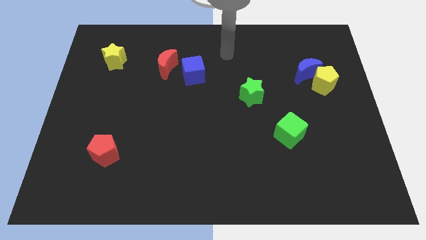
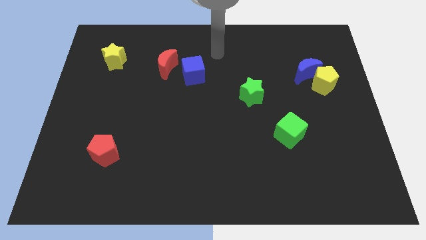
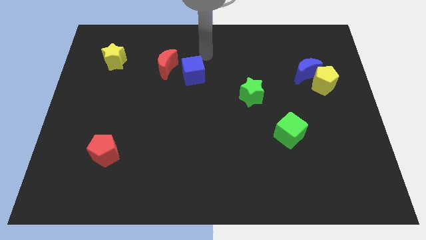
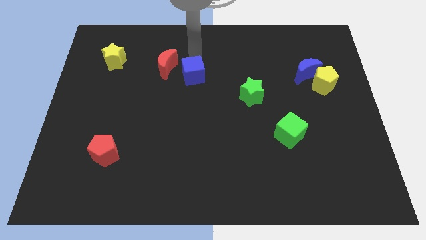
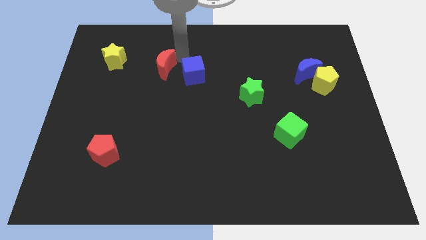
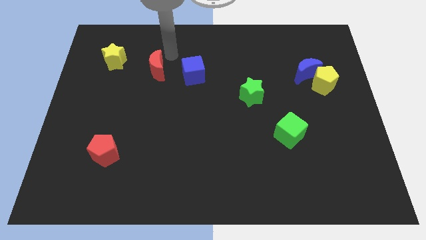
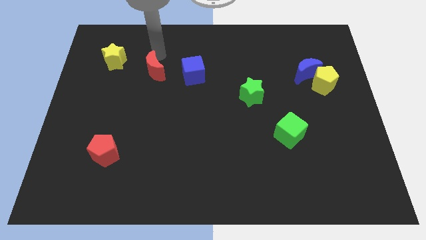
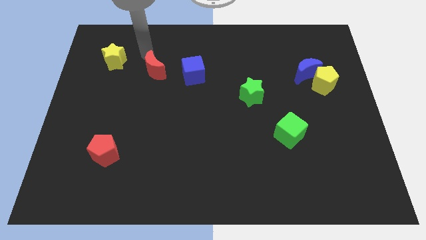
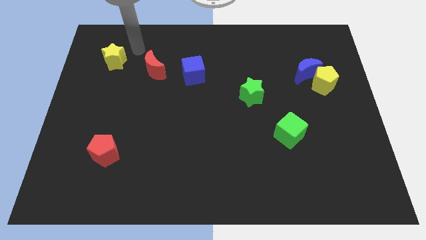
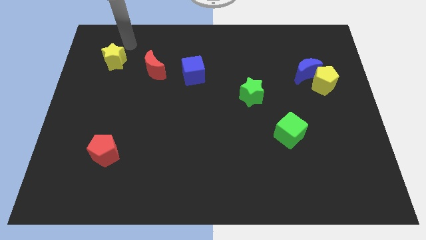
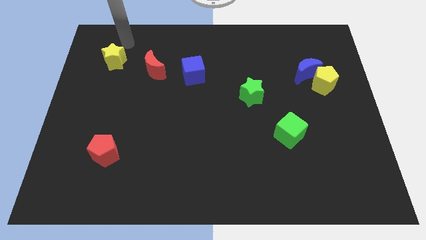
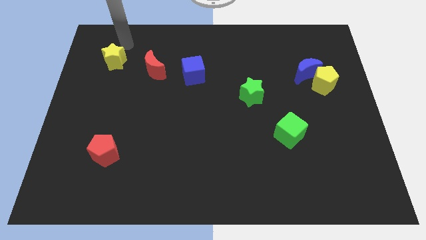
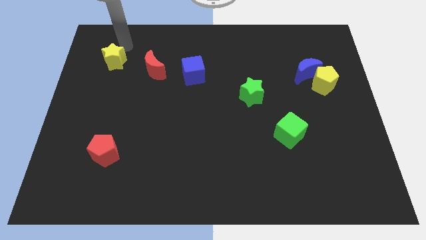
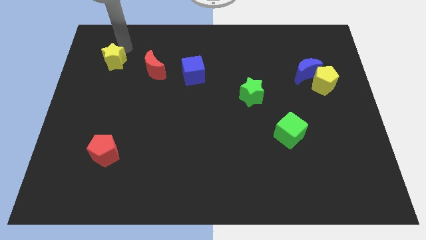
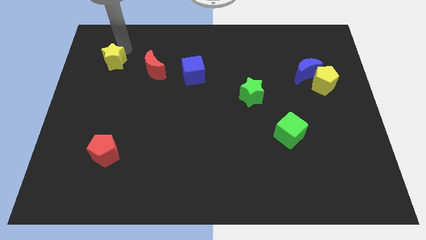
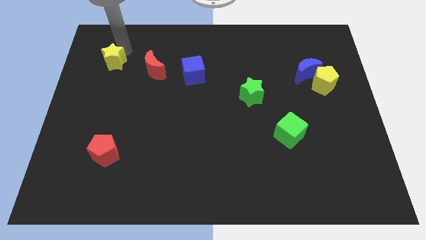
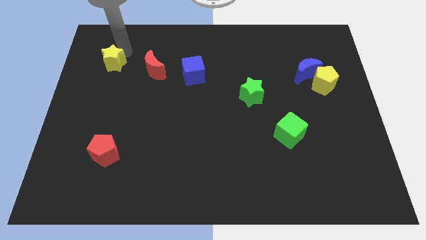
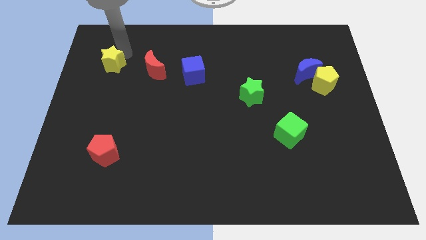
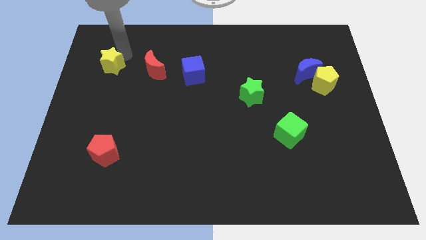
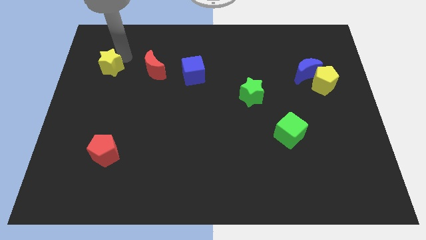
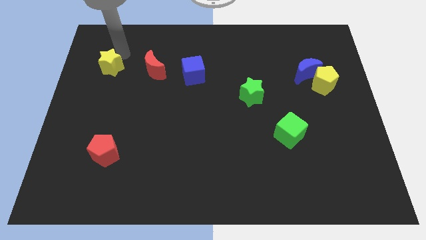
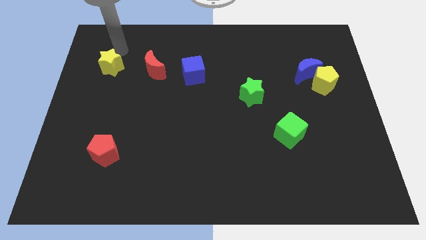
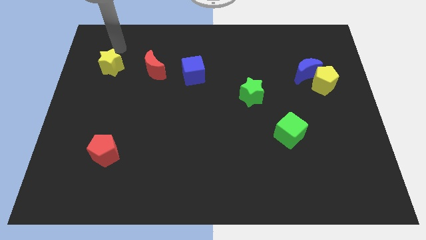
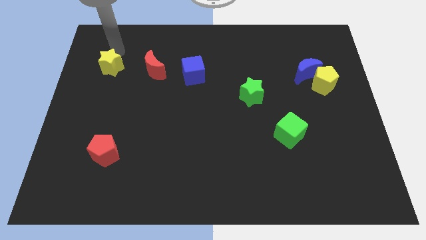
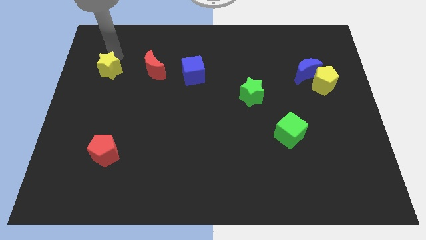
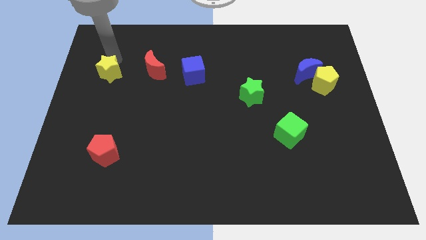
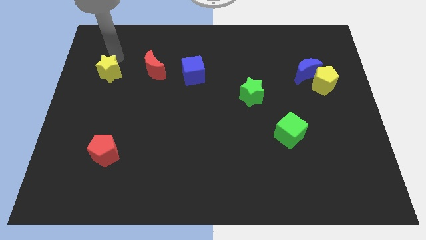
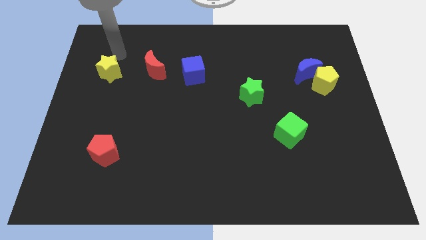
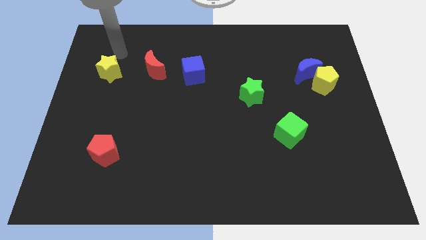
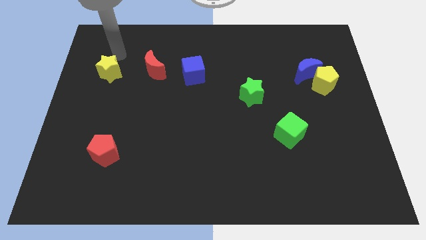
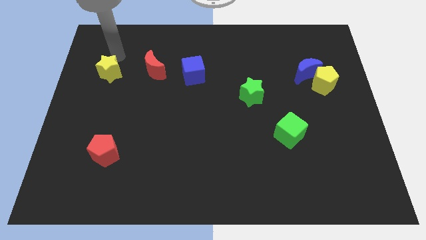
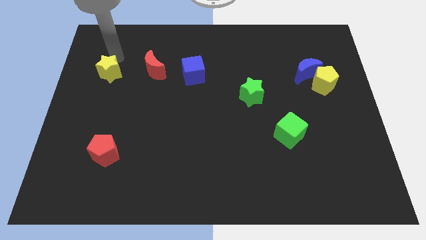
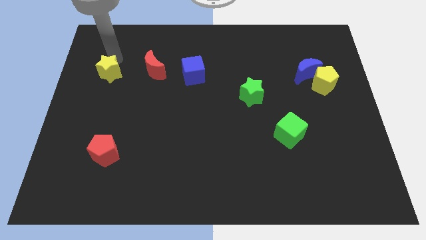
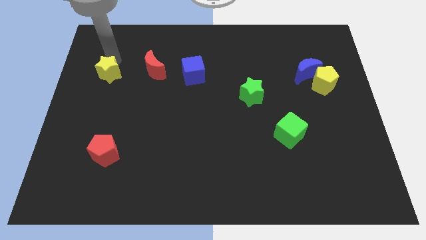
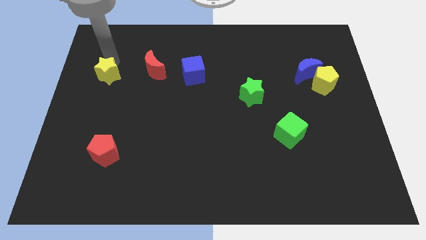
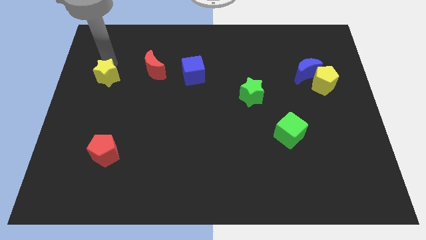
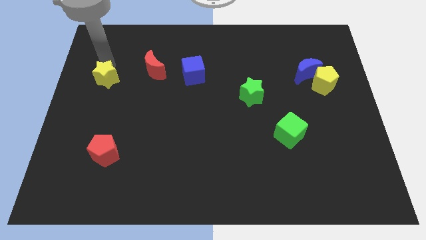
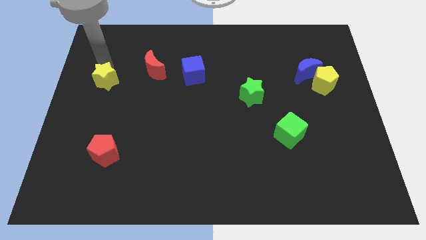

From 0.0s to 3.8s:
slightly push the yellow star down

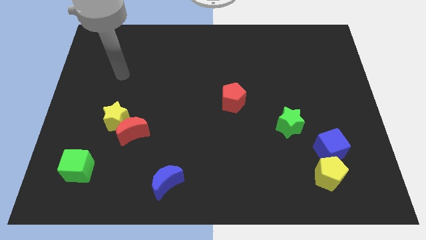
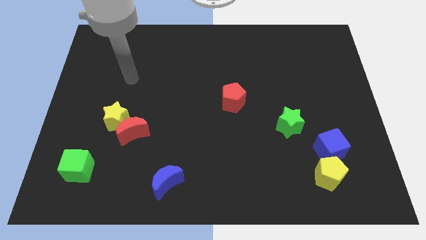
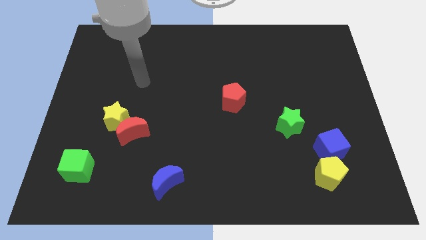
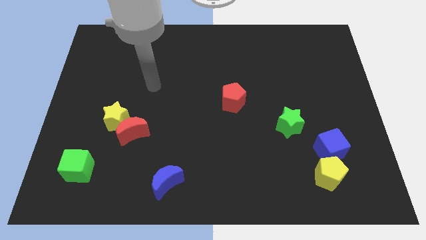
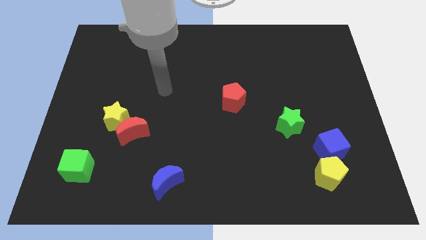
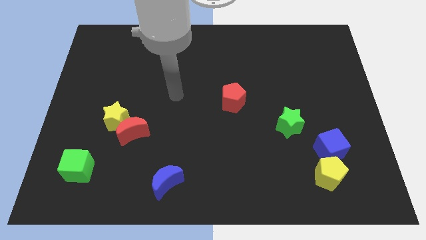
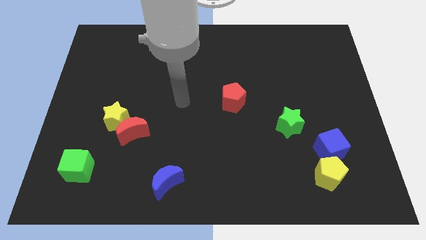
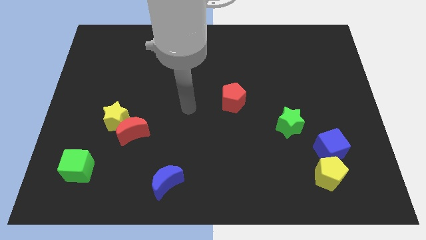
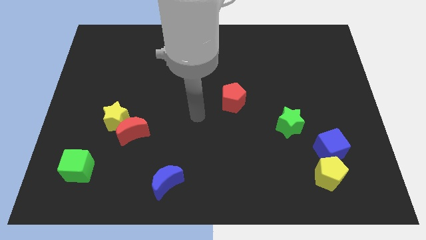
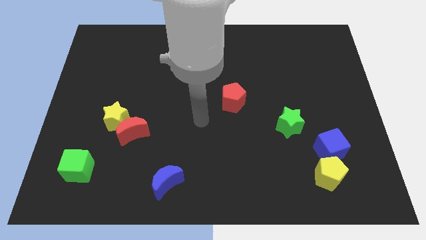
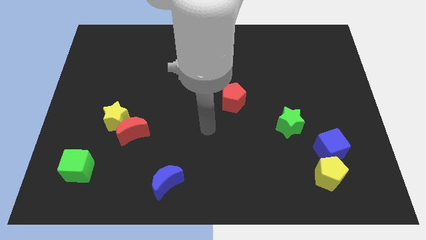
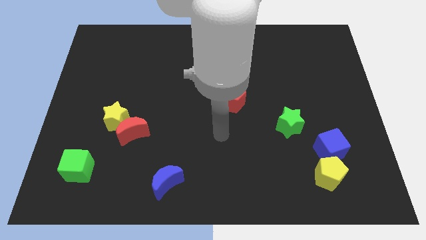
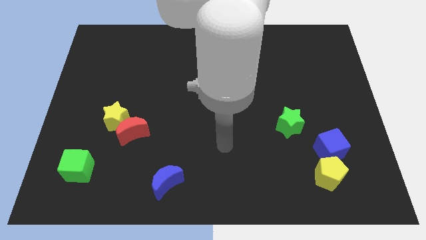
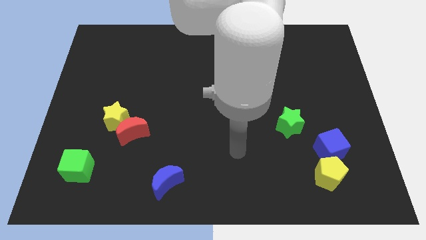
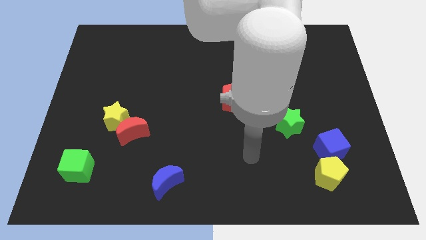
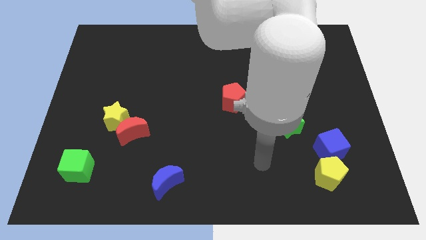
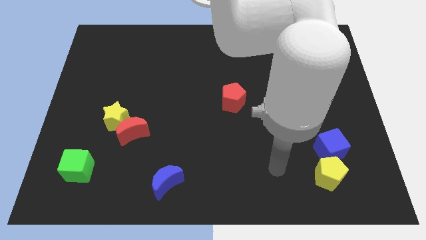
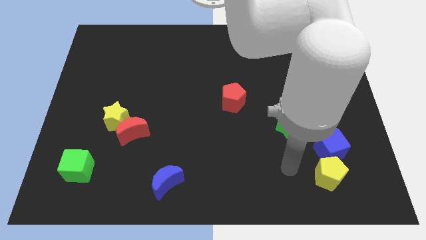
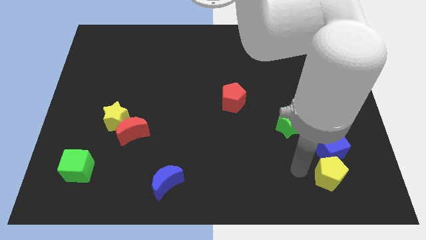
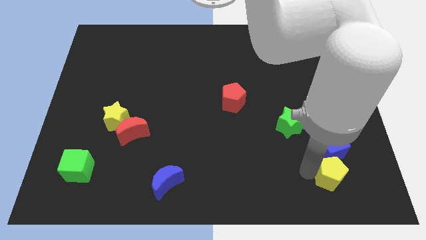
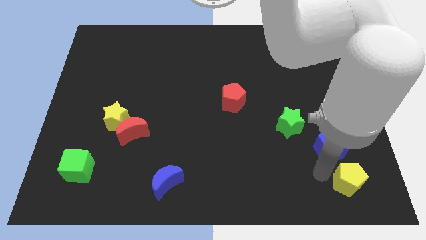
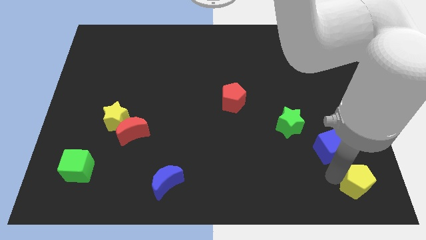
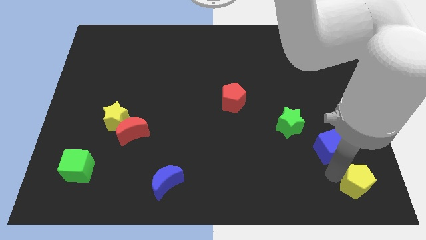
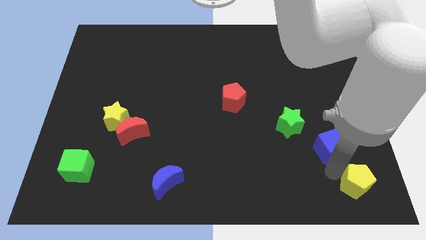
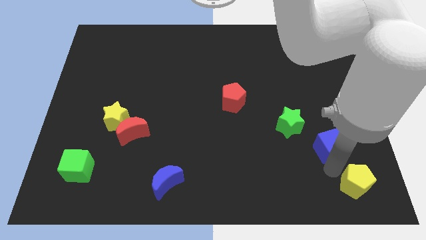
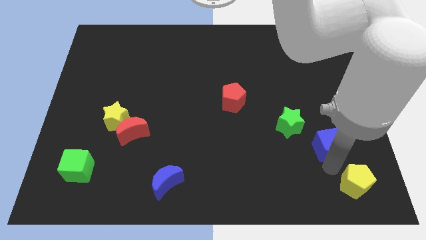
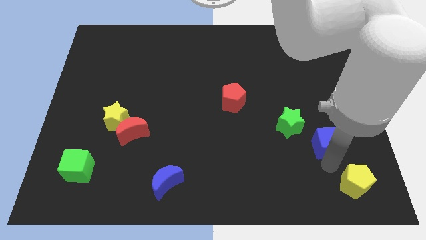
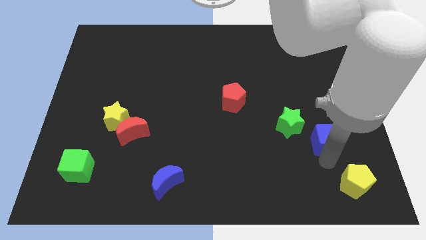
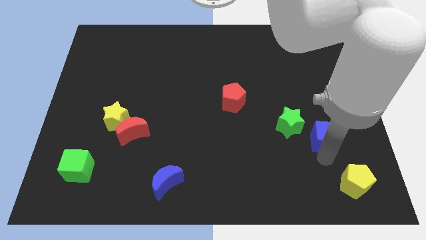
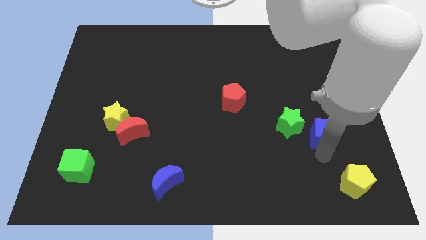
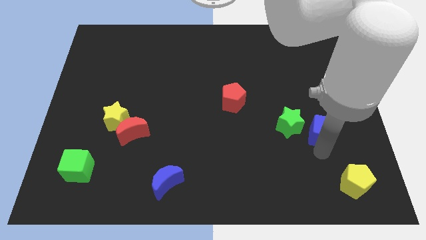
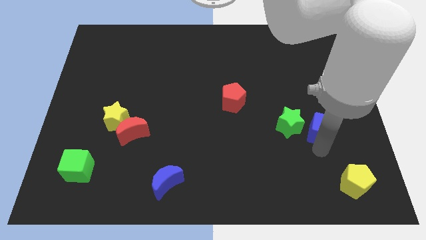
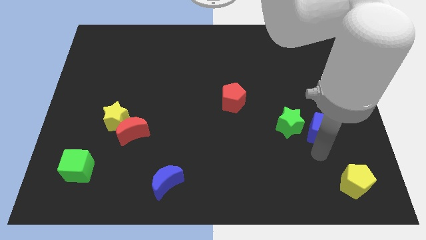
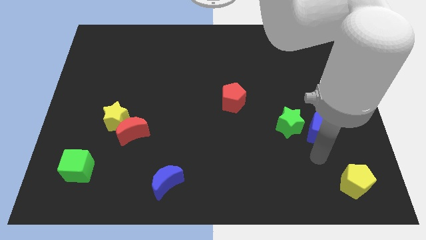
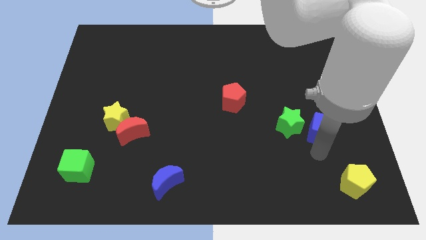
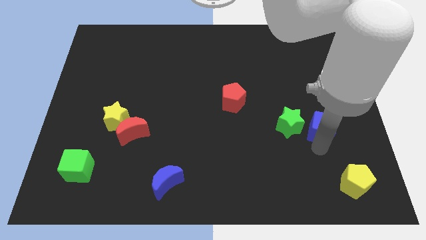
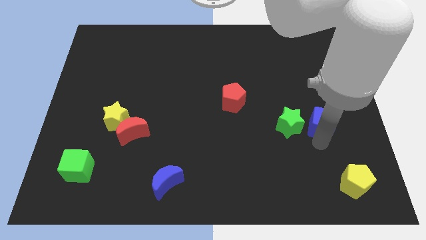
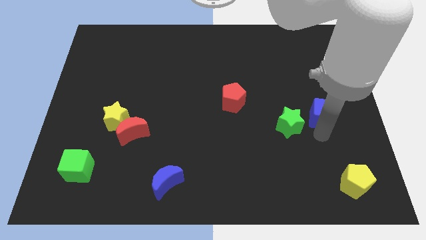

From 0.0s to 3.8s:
slightly move the blue cube up

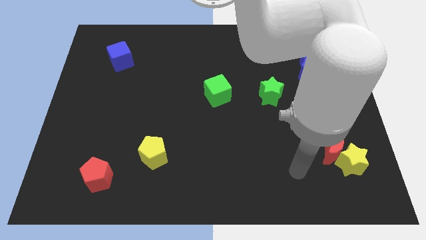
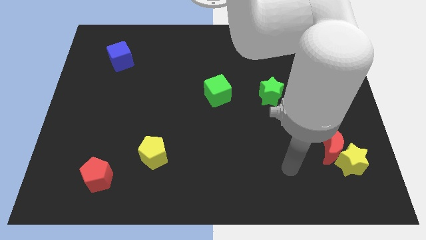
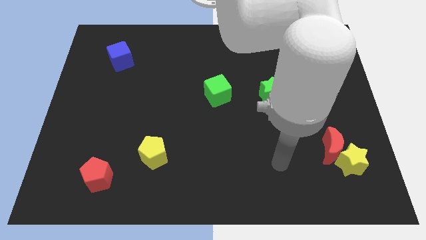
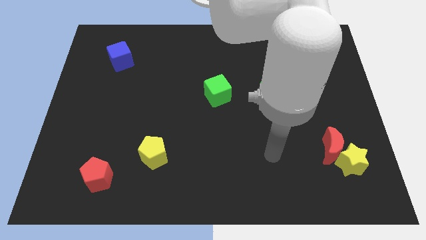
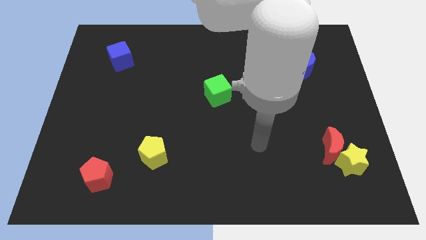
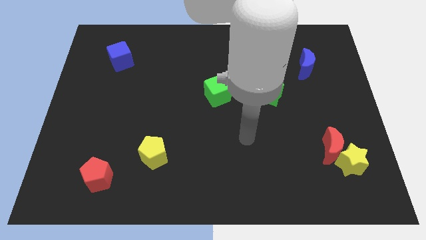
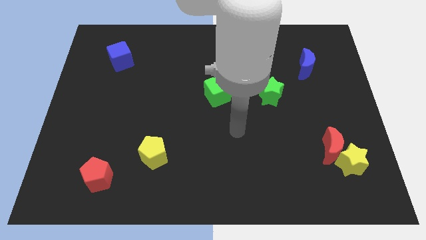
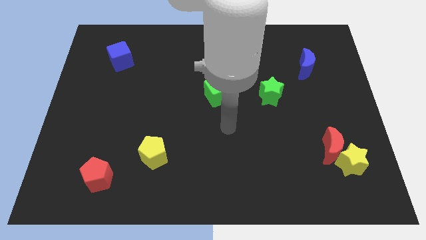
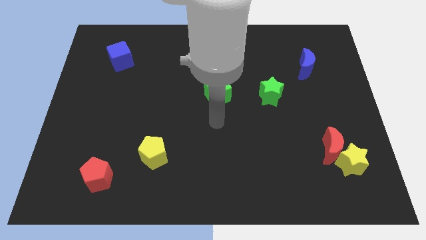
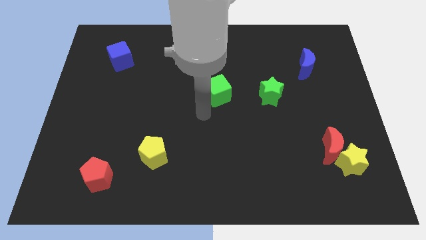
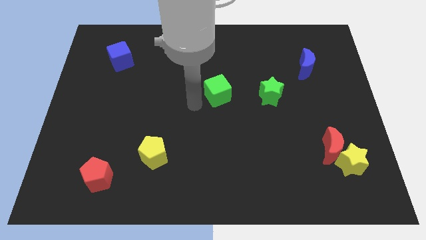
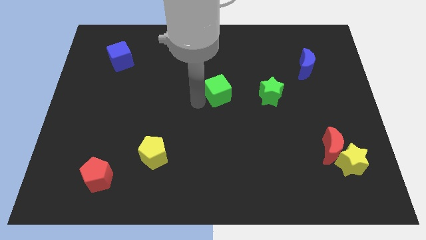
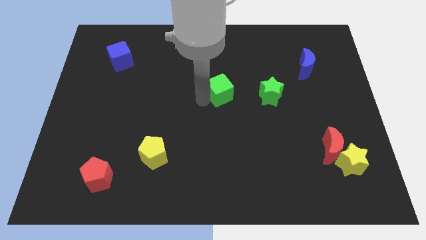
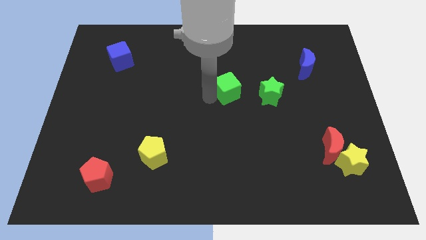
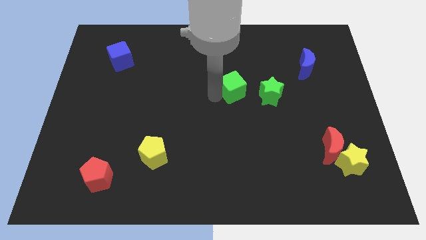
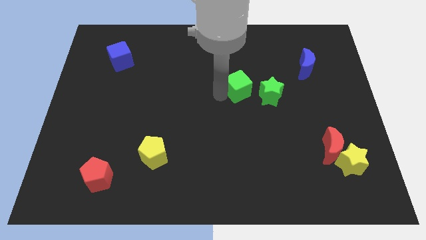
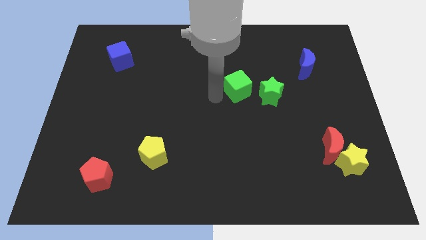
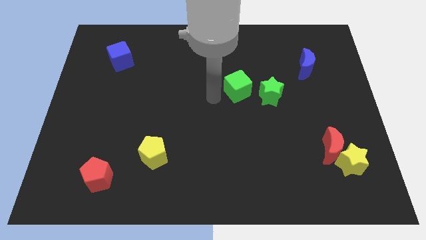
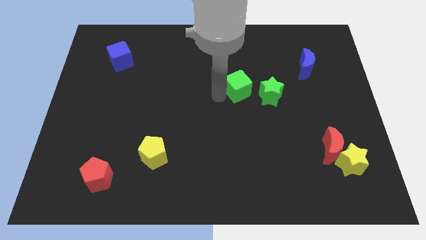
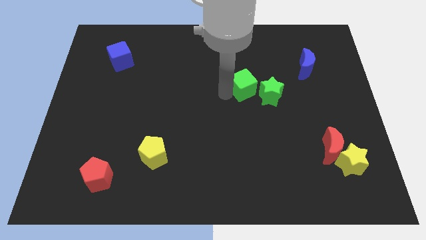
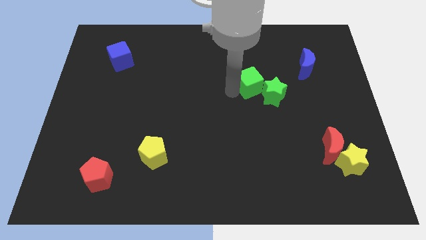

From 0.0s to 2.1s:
slightly slide the green cube to the right
